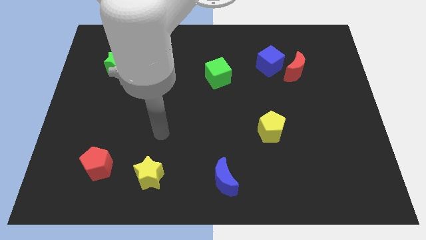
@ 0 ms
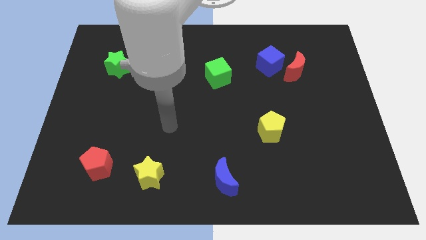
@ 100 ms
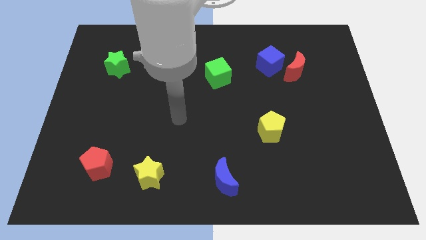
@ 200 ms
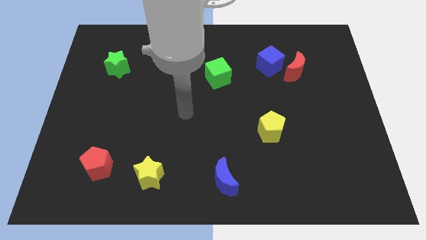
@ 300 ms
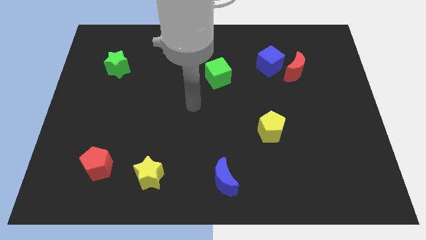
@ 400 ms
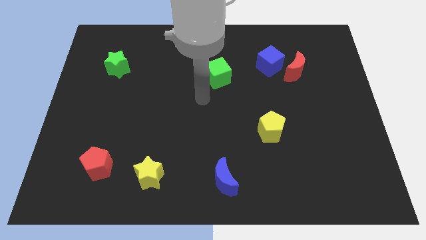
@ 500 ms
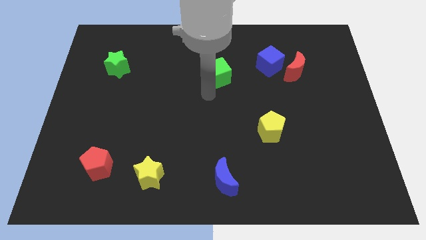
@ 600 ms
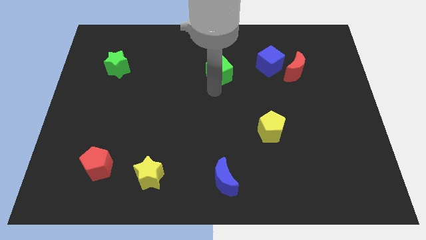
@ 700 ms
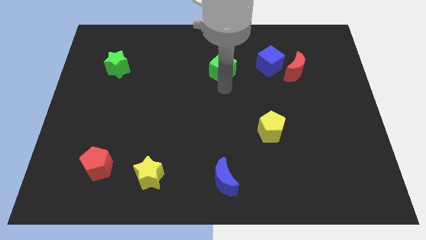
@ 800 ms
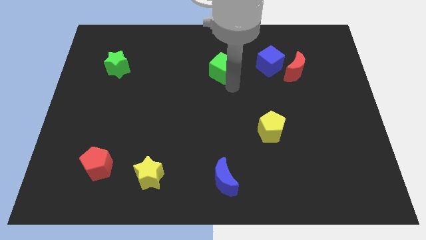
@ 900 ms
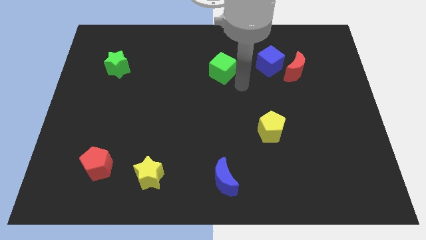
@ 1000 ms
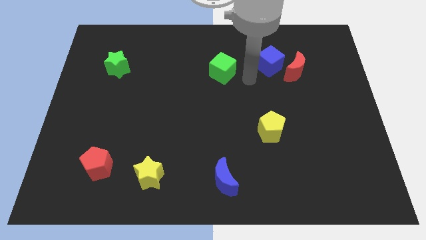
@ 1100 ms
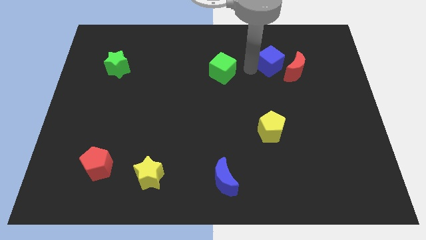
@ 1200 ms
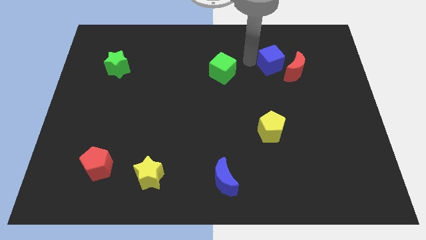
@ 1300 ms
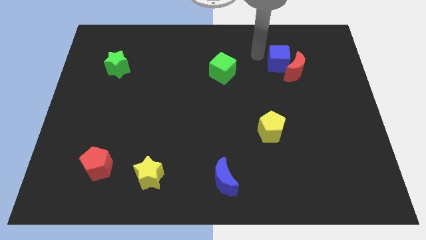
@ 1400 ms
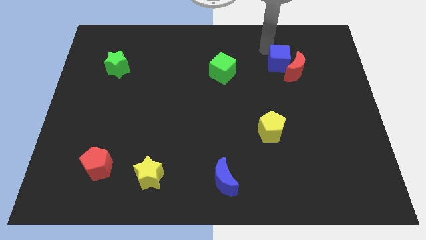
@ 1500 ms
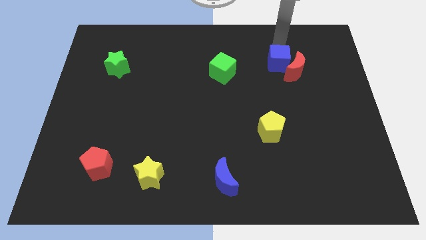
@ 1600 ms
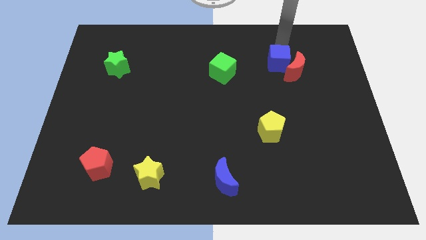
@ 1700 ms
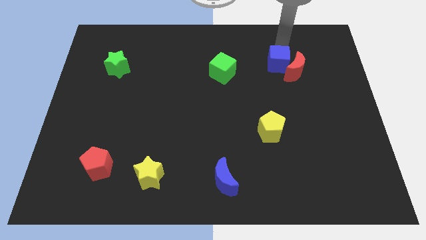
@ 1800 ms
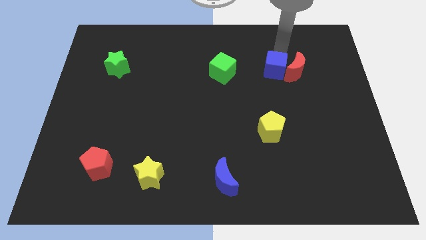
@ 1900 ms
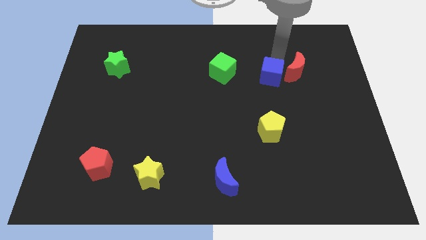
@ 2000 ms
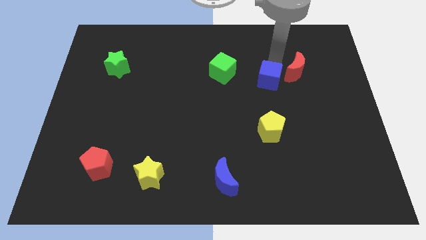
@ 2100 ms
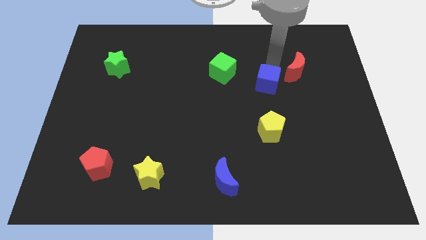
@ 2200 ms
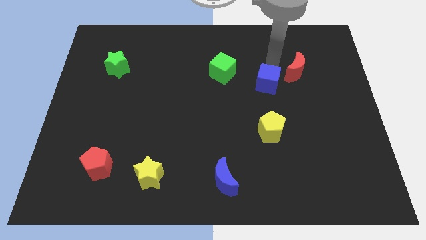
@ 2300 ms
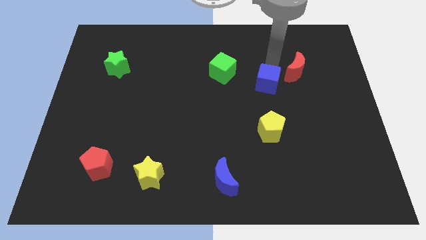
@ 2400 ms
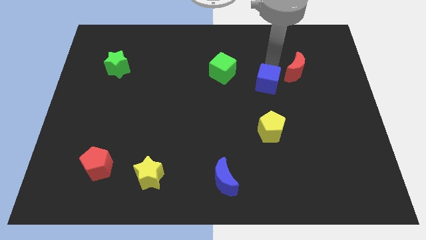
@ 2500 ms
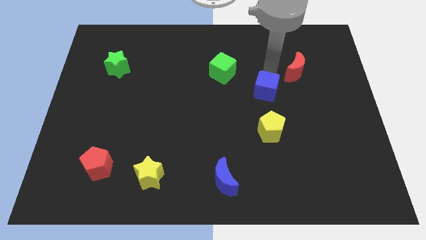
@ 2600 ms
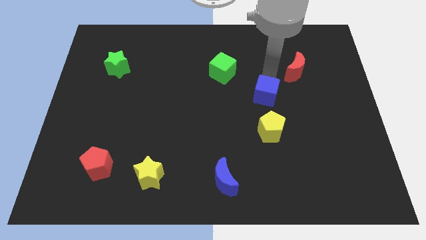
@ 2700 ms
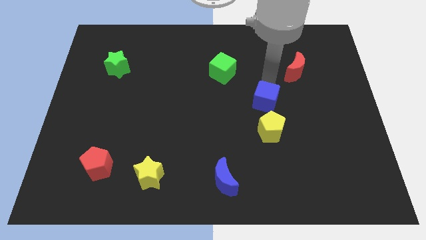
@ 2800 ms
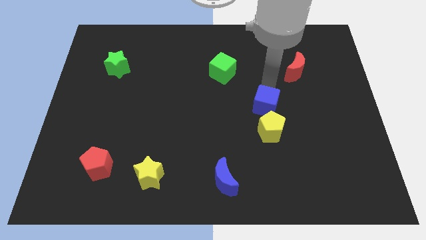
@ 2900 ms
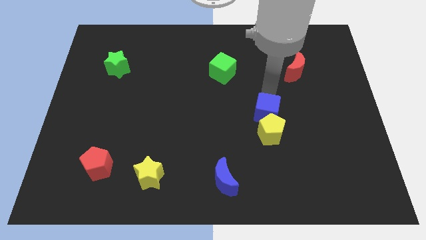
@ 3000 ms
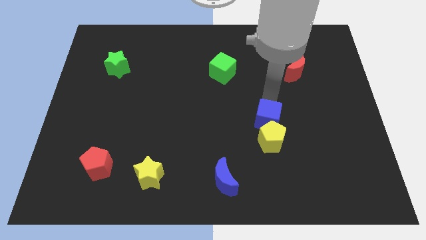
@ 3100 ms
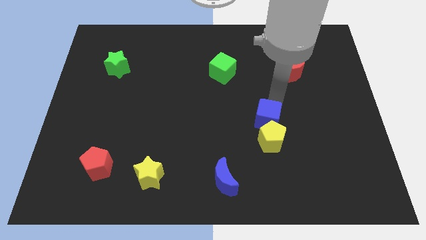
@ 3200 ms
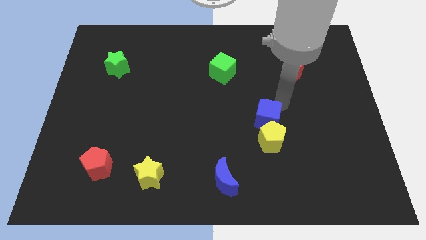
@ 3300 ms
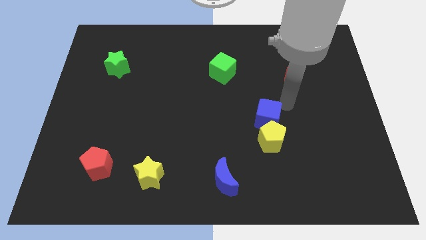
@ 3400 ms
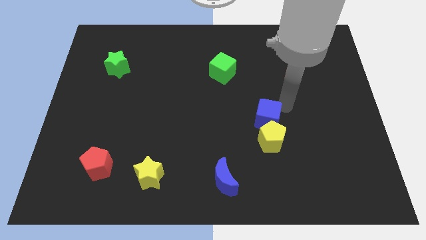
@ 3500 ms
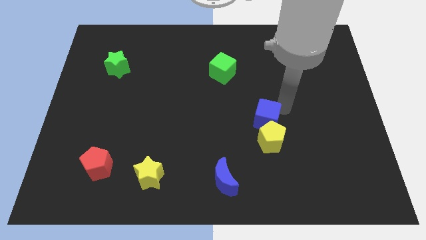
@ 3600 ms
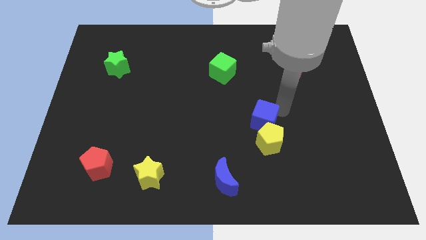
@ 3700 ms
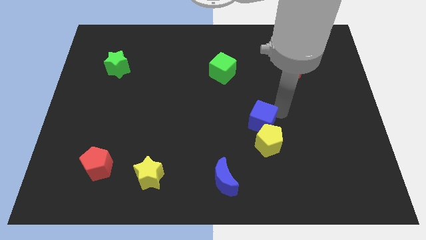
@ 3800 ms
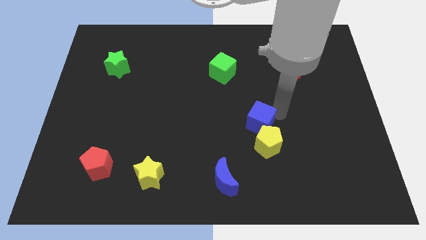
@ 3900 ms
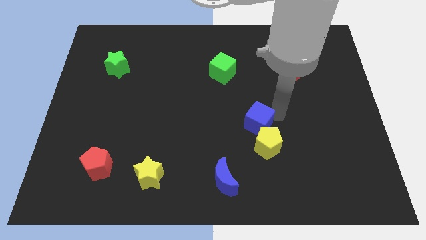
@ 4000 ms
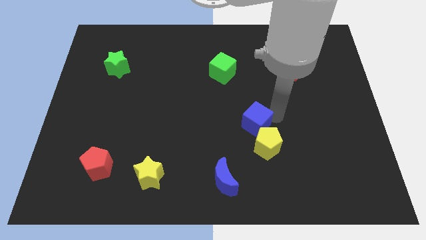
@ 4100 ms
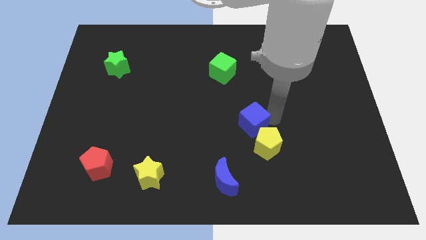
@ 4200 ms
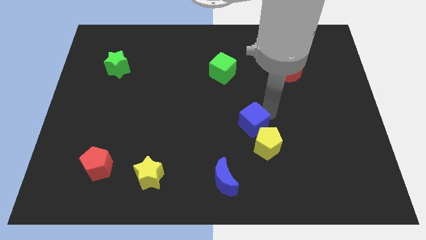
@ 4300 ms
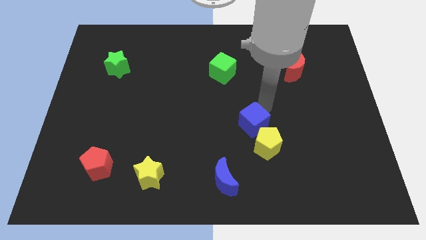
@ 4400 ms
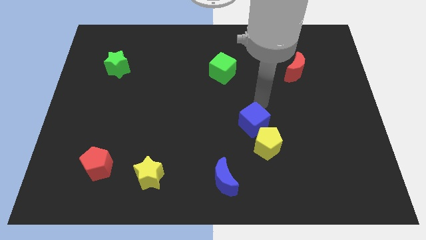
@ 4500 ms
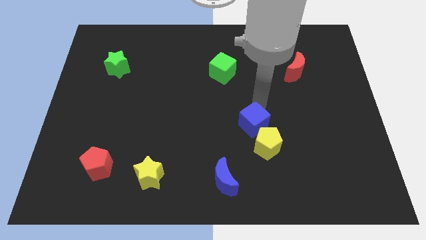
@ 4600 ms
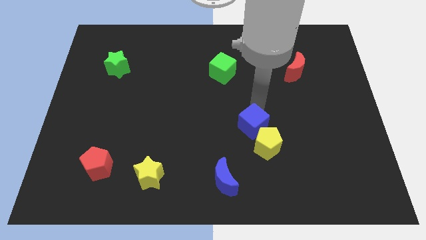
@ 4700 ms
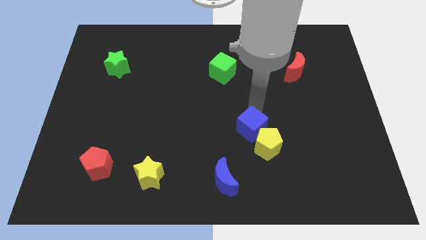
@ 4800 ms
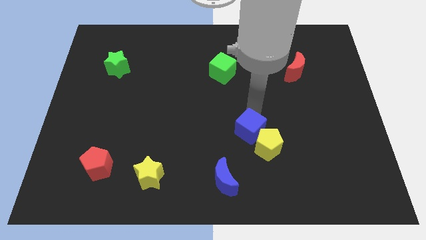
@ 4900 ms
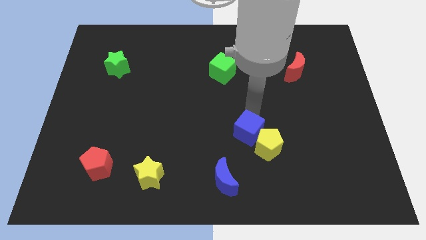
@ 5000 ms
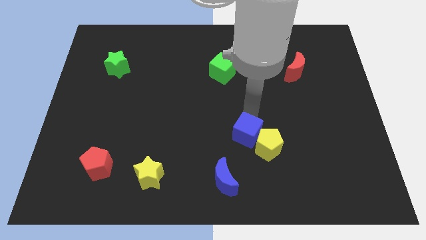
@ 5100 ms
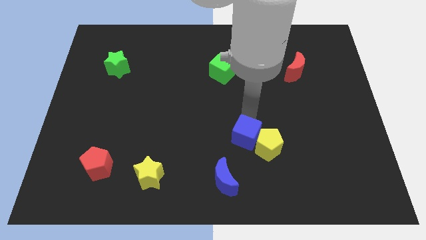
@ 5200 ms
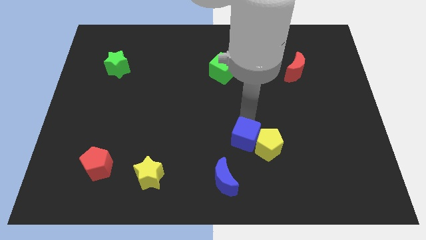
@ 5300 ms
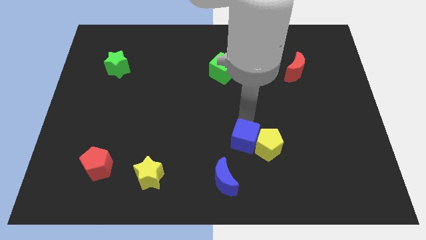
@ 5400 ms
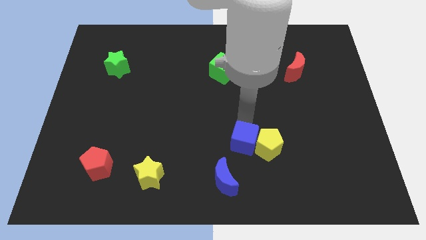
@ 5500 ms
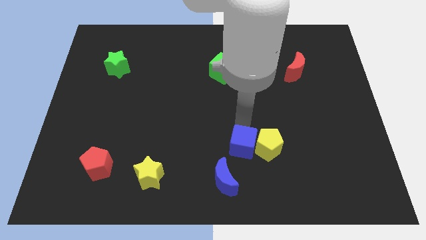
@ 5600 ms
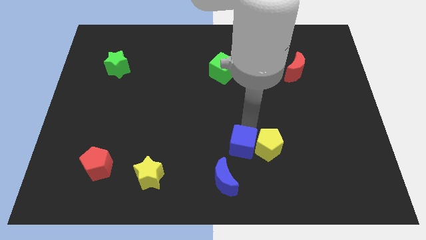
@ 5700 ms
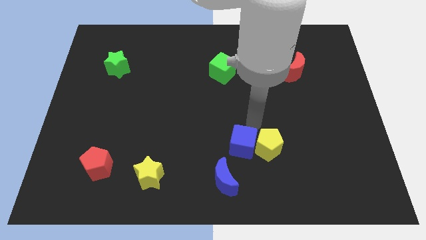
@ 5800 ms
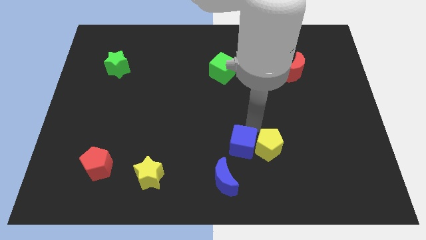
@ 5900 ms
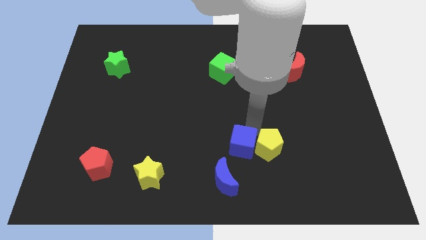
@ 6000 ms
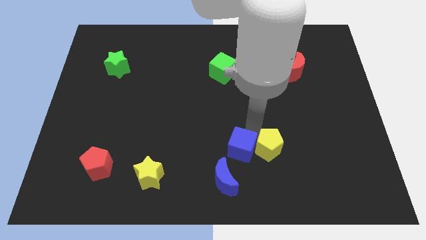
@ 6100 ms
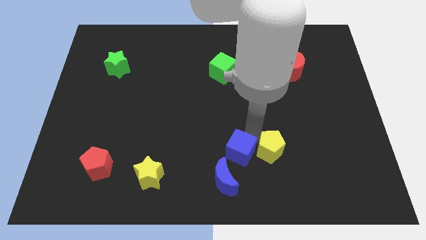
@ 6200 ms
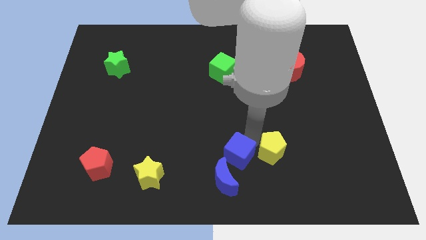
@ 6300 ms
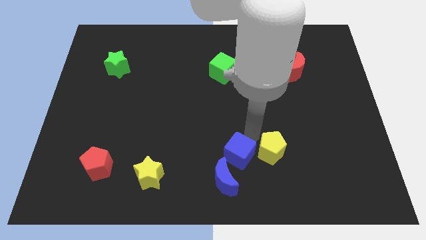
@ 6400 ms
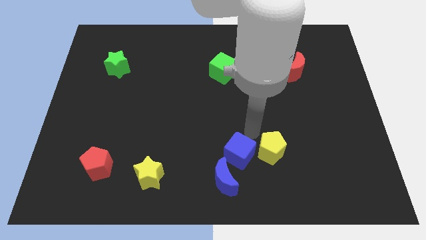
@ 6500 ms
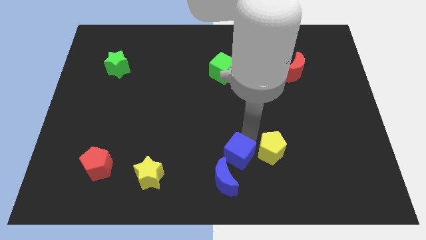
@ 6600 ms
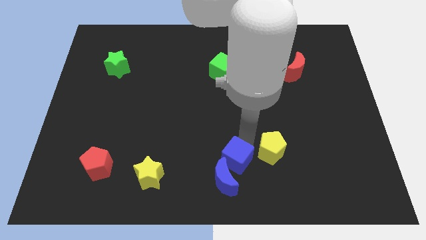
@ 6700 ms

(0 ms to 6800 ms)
push the blue cube to the blue moon
